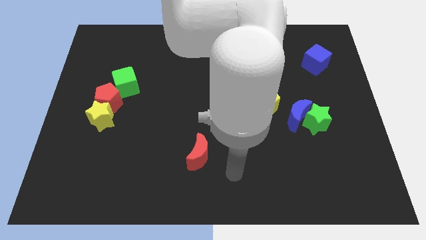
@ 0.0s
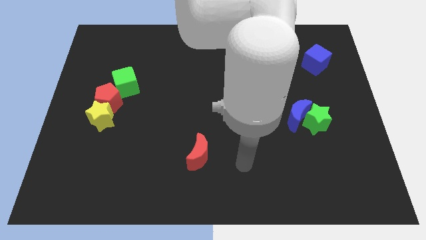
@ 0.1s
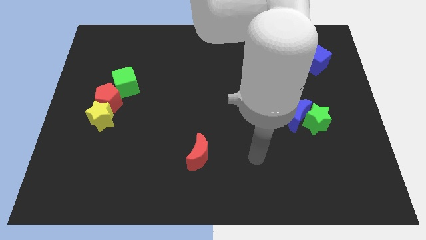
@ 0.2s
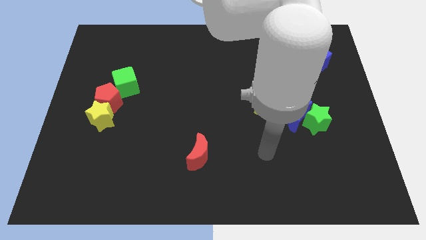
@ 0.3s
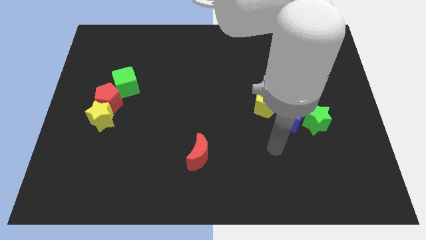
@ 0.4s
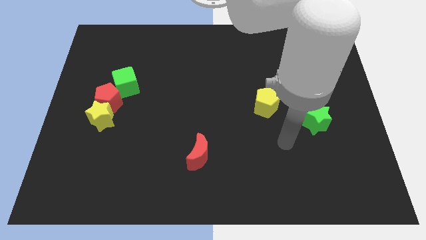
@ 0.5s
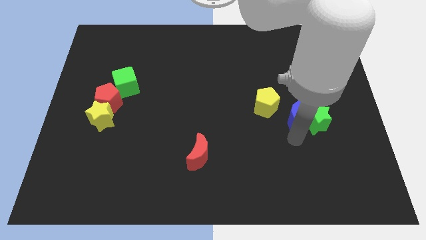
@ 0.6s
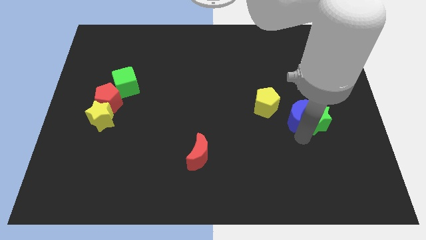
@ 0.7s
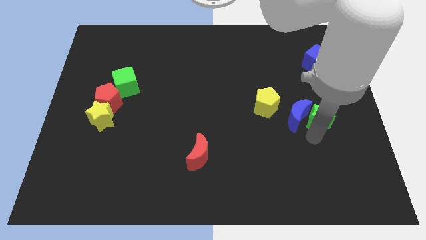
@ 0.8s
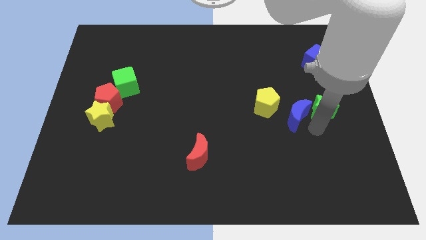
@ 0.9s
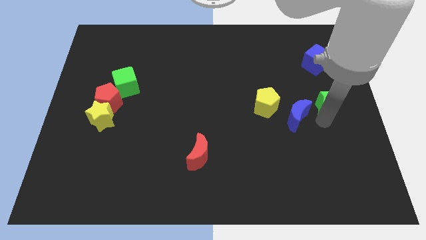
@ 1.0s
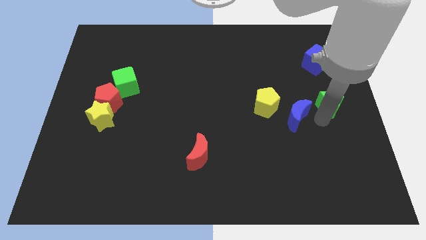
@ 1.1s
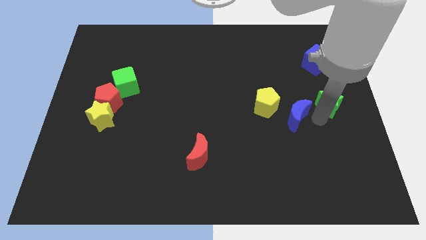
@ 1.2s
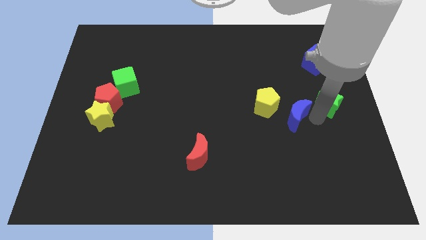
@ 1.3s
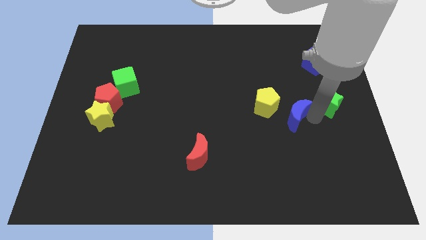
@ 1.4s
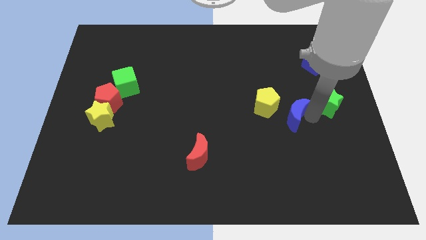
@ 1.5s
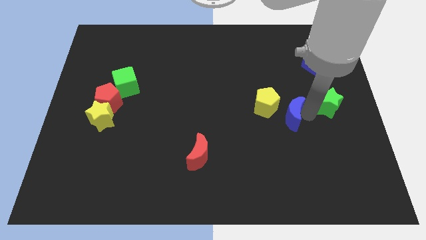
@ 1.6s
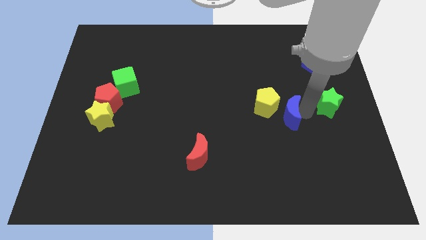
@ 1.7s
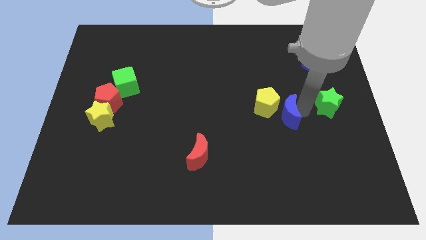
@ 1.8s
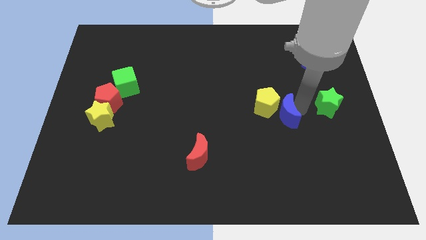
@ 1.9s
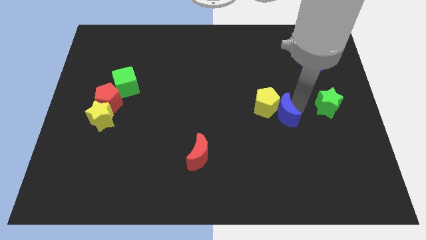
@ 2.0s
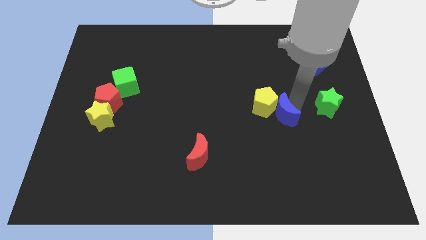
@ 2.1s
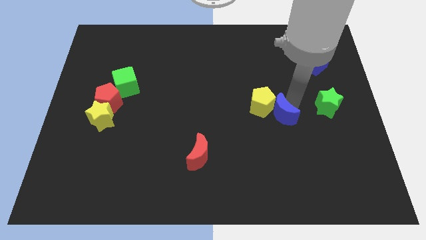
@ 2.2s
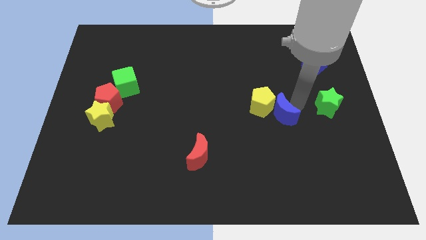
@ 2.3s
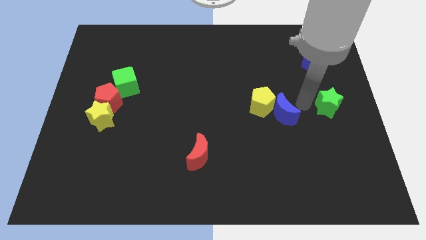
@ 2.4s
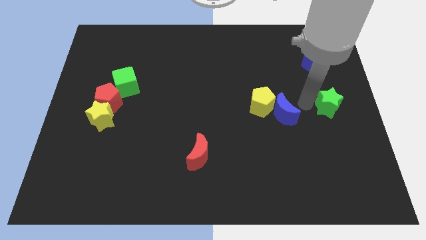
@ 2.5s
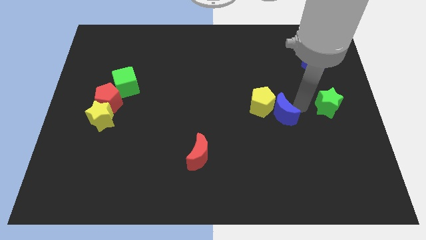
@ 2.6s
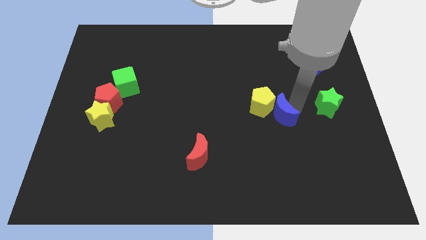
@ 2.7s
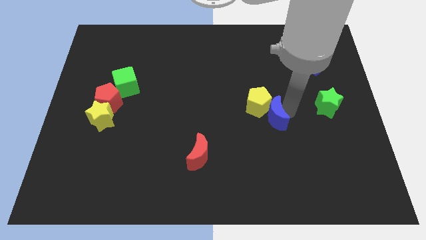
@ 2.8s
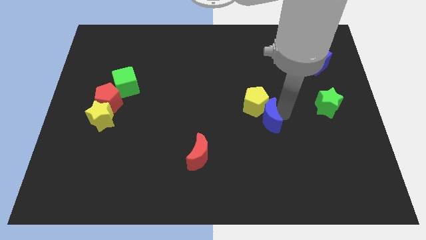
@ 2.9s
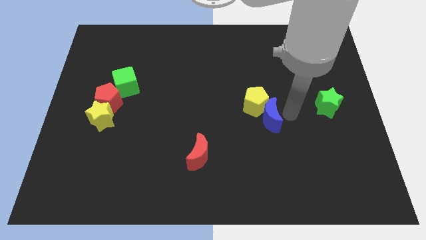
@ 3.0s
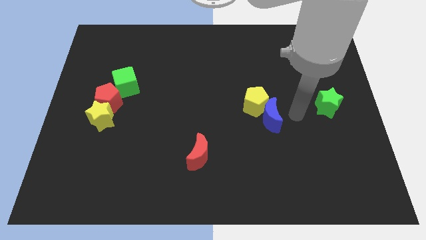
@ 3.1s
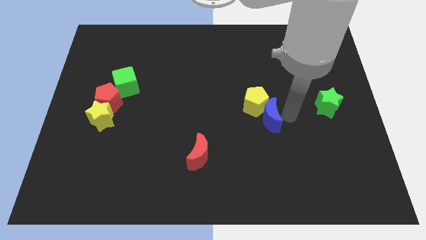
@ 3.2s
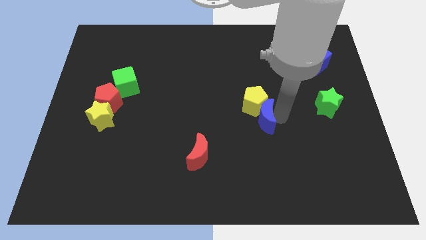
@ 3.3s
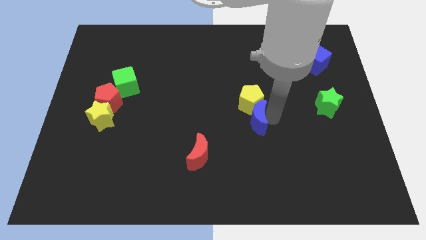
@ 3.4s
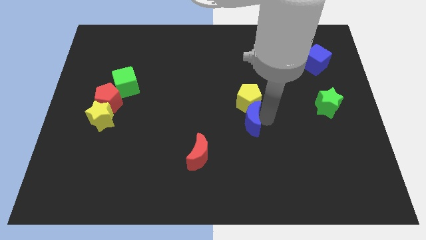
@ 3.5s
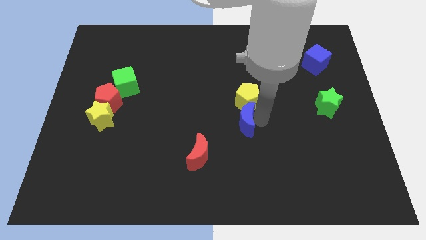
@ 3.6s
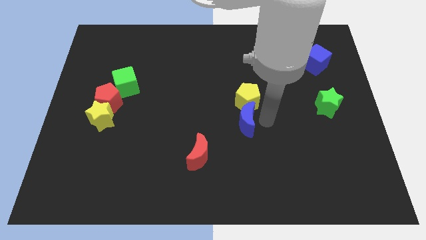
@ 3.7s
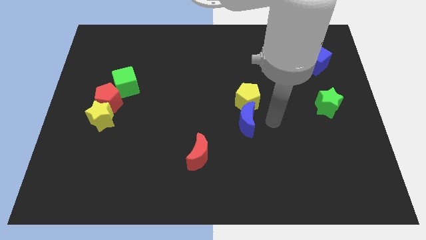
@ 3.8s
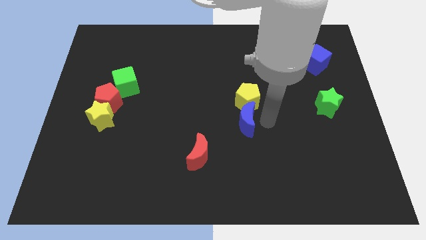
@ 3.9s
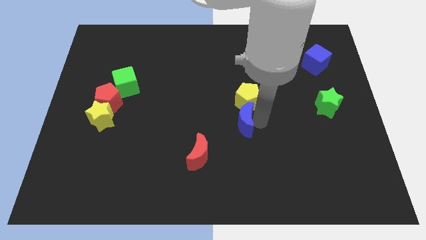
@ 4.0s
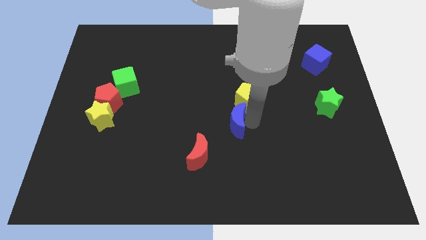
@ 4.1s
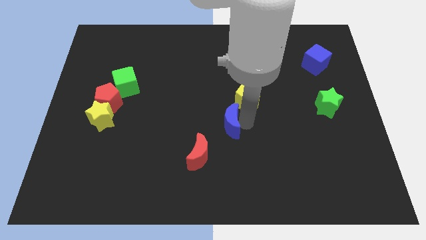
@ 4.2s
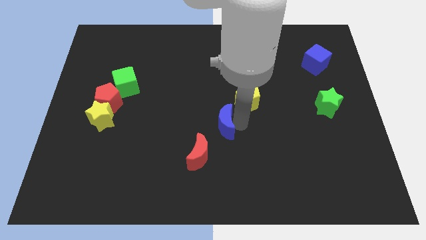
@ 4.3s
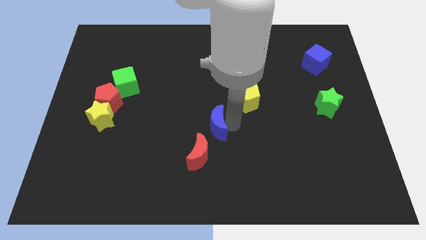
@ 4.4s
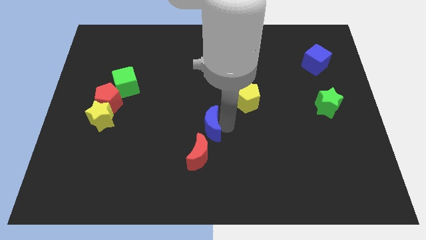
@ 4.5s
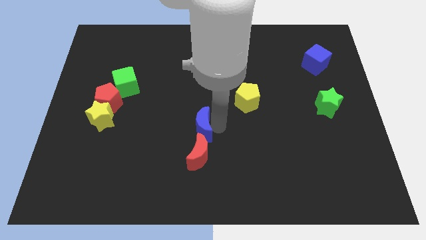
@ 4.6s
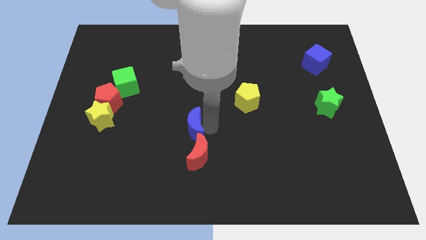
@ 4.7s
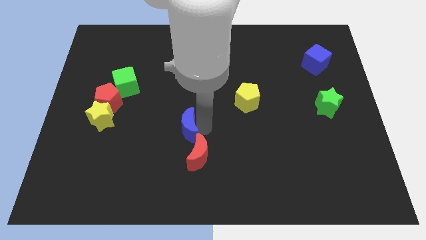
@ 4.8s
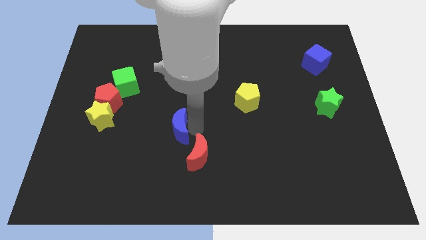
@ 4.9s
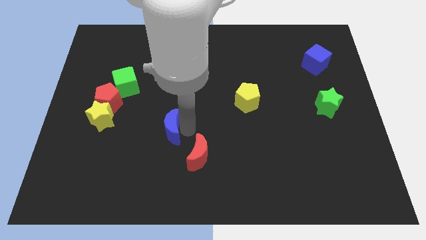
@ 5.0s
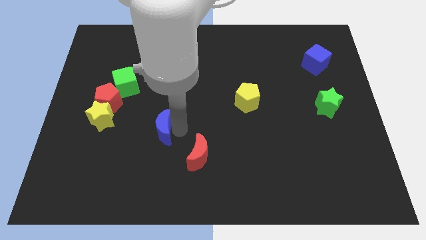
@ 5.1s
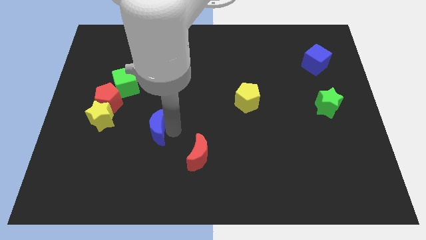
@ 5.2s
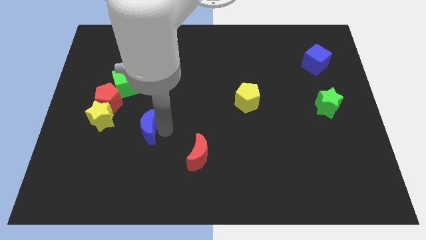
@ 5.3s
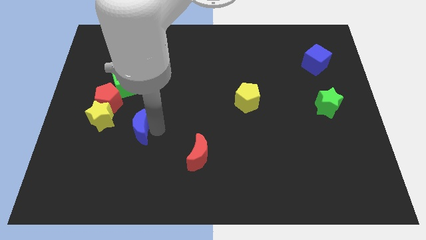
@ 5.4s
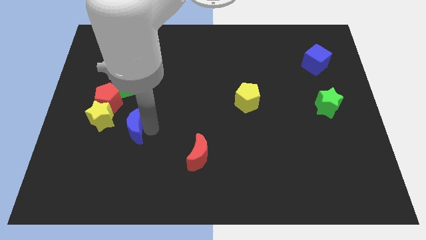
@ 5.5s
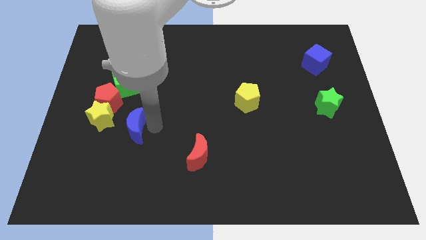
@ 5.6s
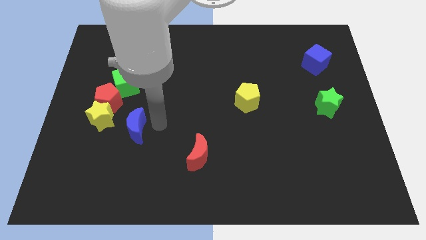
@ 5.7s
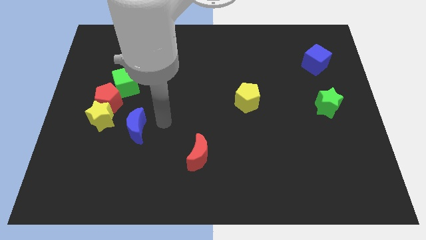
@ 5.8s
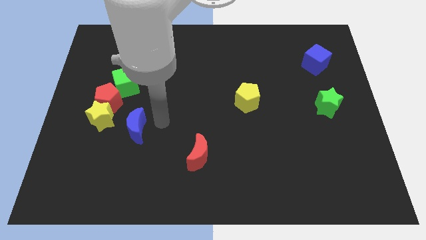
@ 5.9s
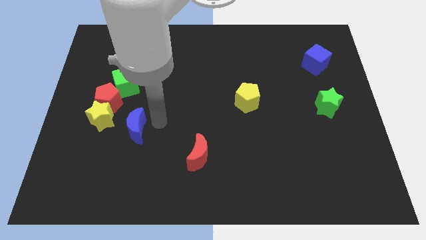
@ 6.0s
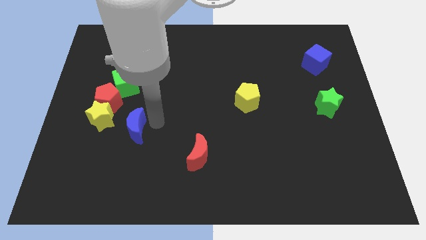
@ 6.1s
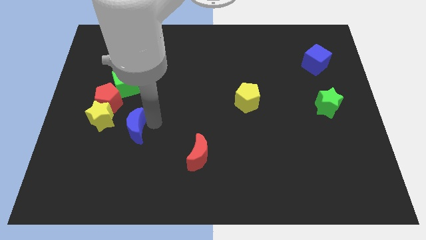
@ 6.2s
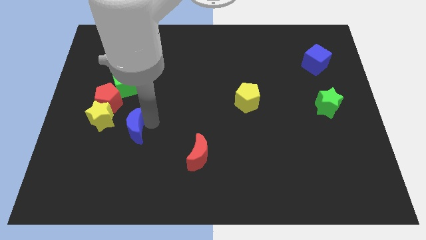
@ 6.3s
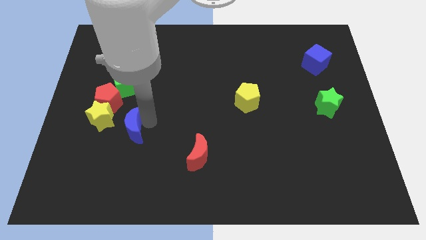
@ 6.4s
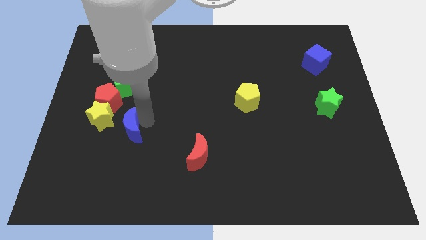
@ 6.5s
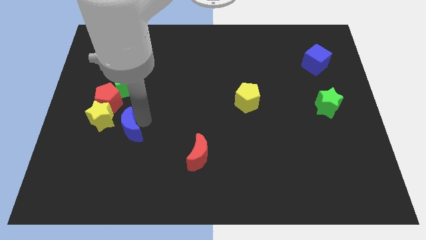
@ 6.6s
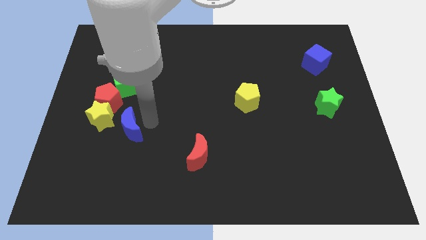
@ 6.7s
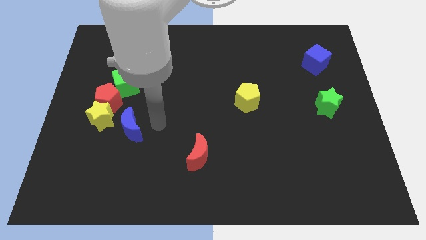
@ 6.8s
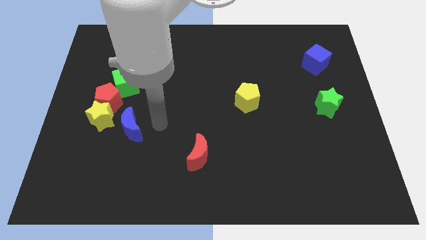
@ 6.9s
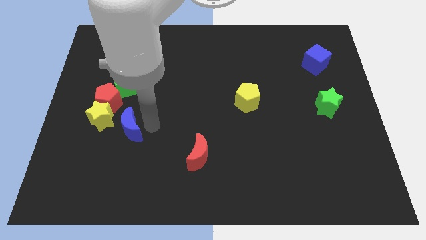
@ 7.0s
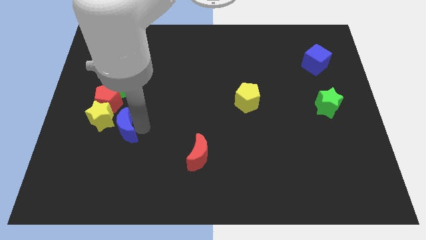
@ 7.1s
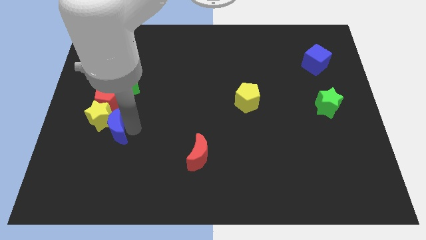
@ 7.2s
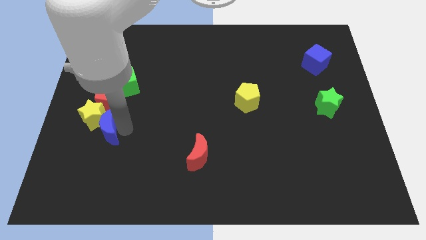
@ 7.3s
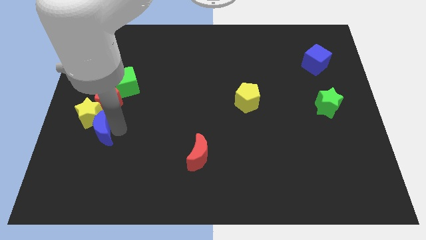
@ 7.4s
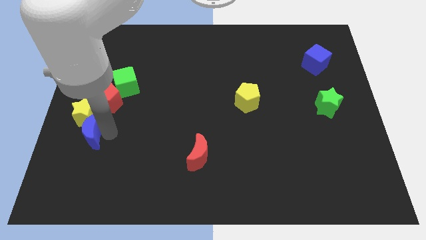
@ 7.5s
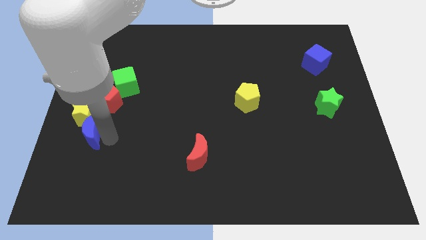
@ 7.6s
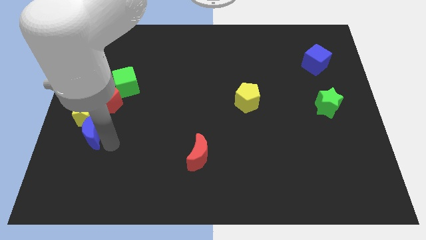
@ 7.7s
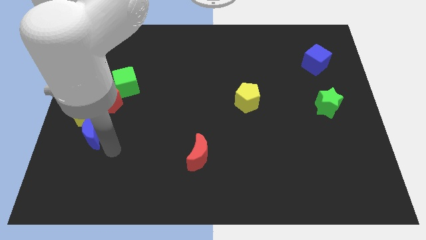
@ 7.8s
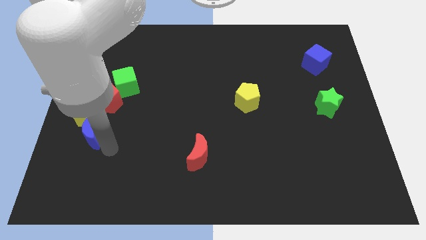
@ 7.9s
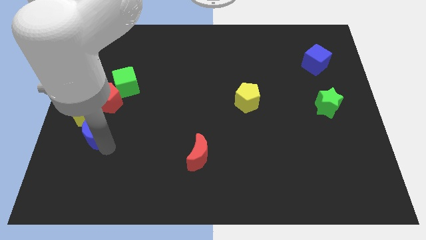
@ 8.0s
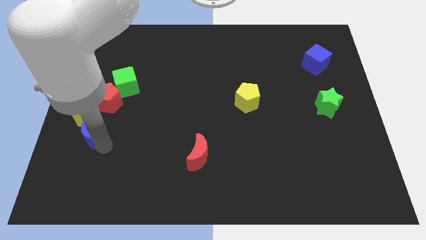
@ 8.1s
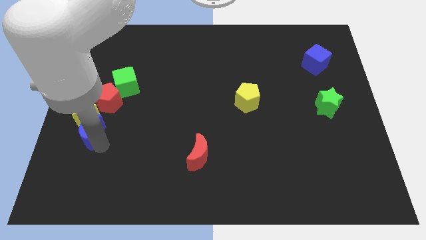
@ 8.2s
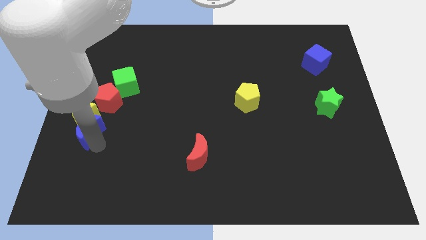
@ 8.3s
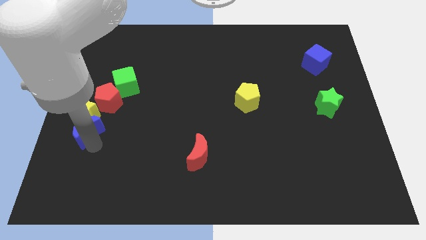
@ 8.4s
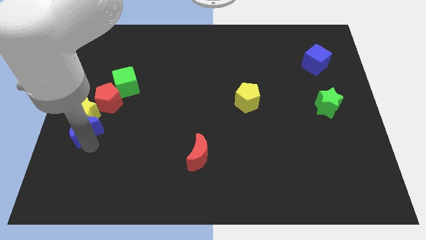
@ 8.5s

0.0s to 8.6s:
put the blue moon to the left side of the board
